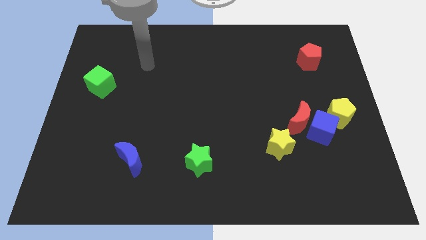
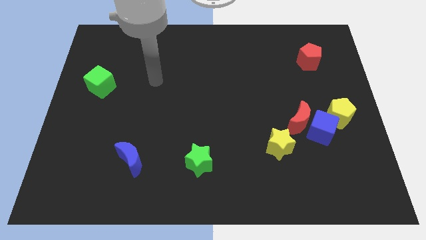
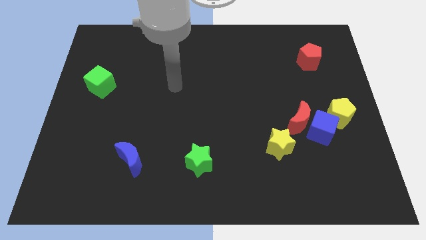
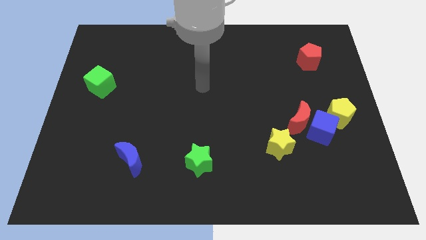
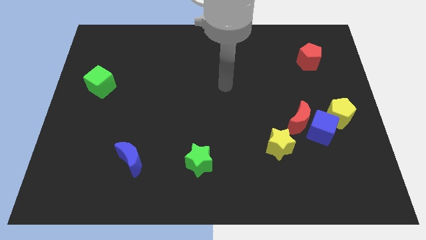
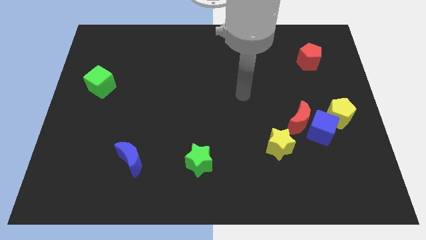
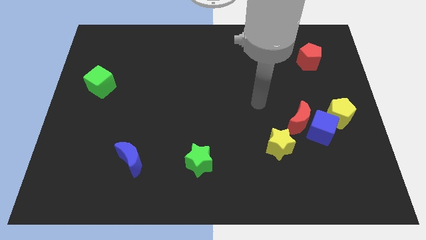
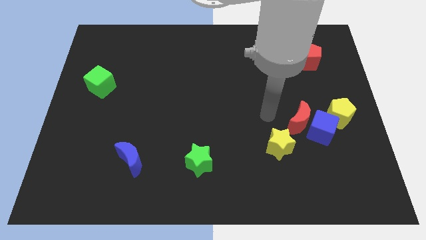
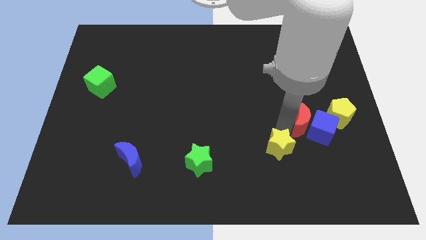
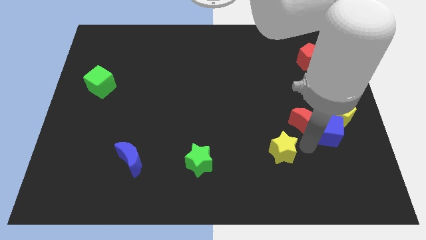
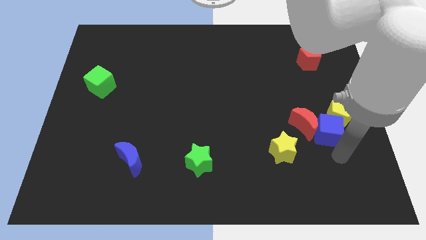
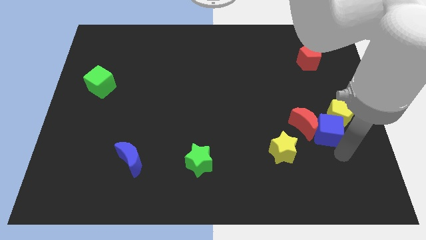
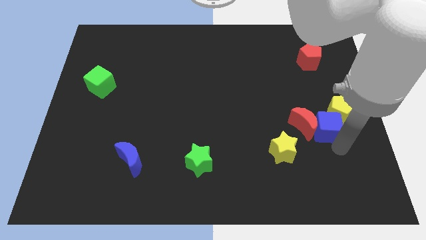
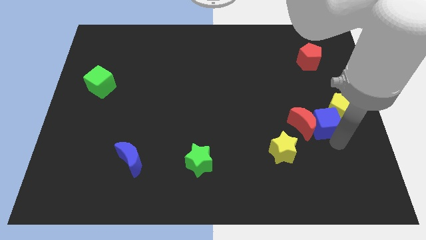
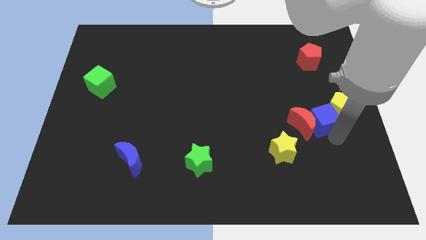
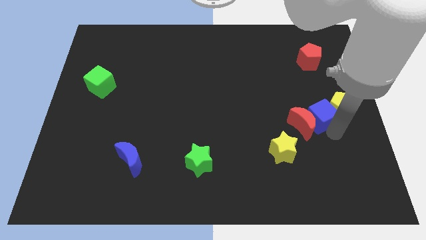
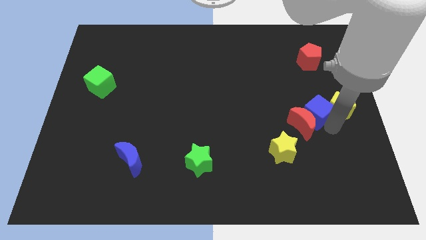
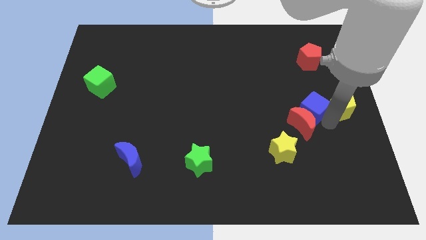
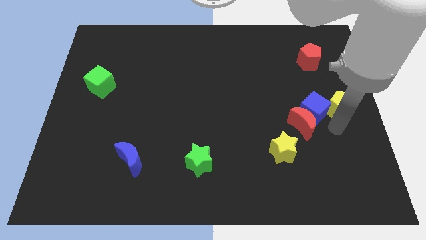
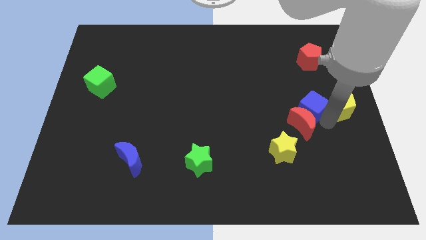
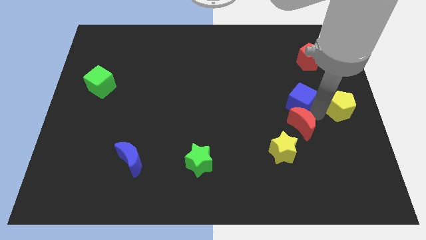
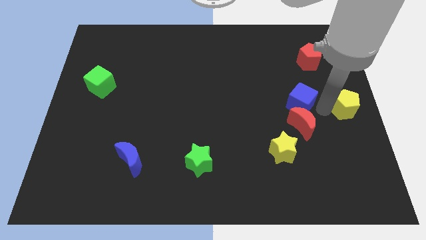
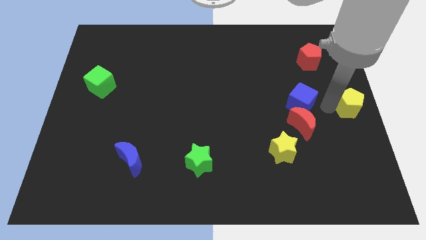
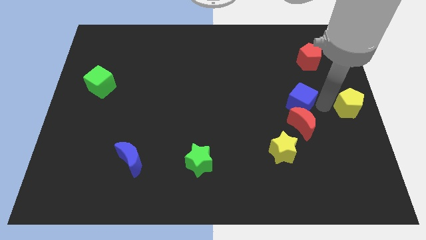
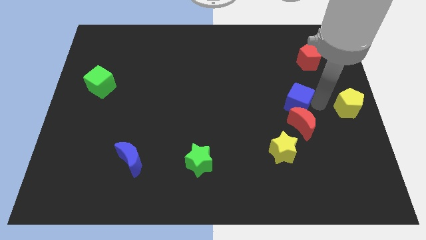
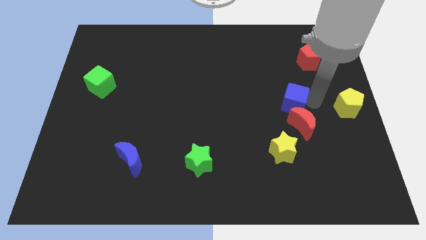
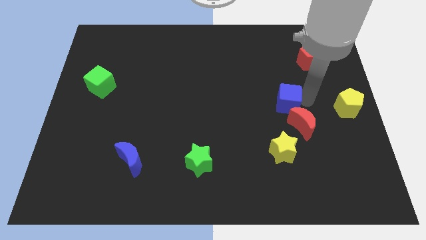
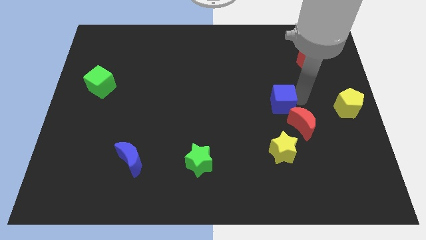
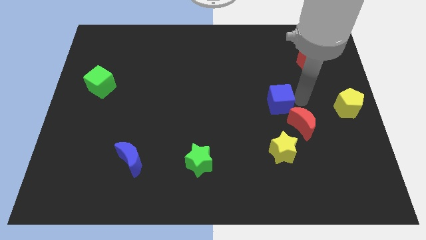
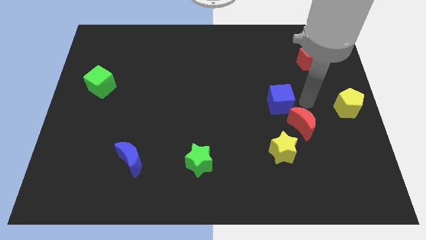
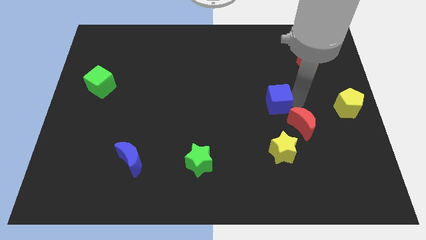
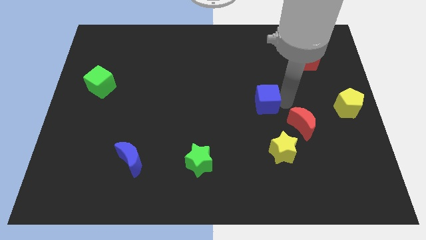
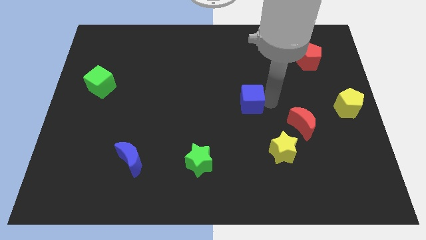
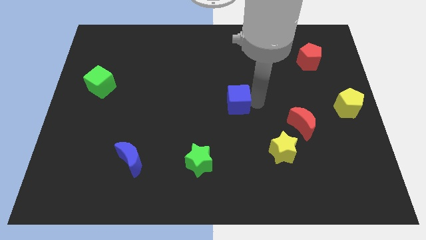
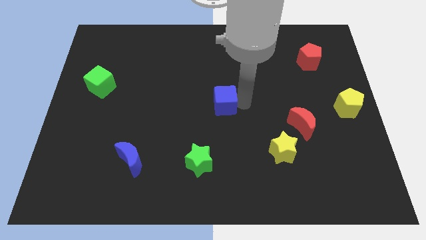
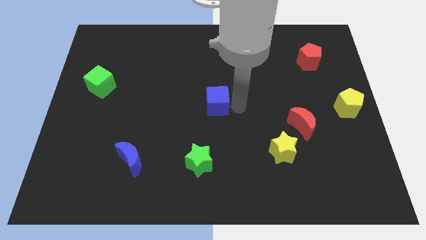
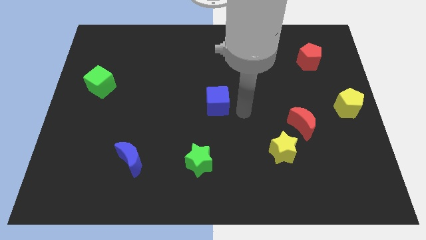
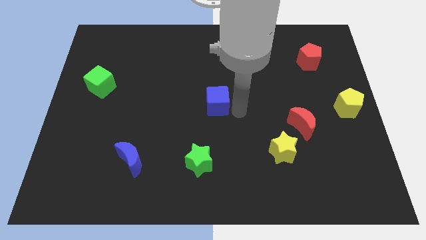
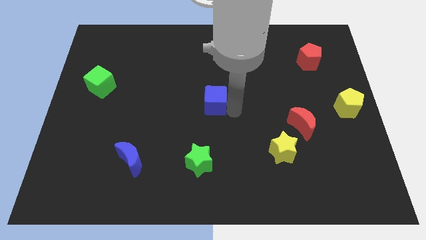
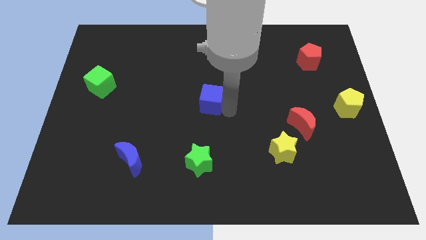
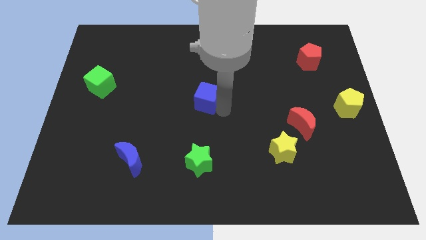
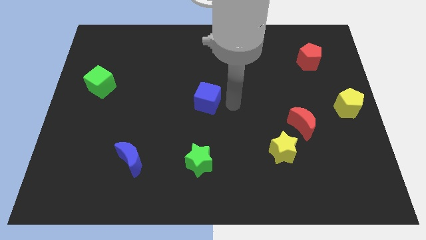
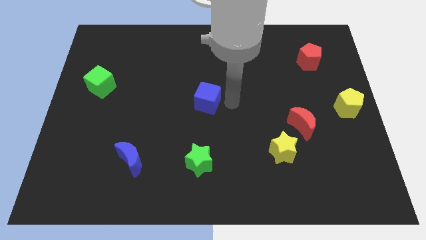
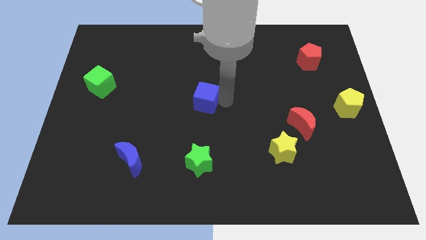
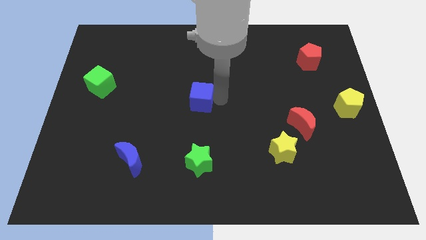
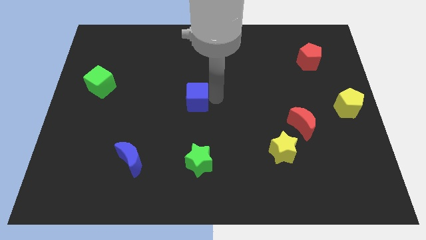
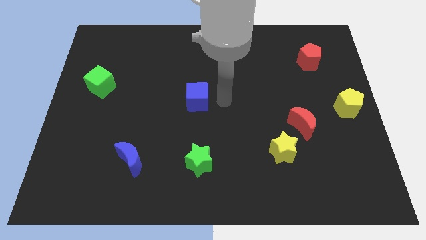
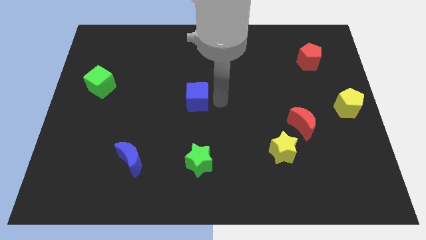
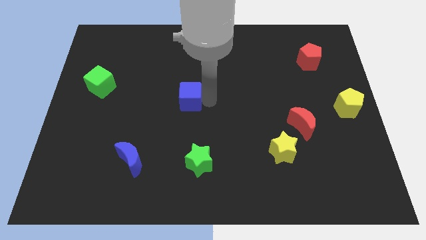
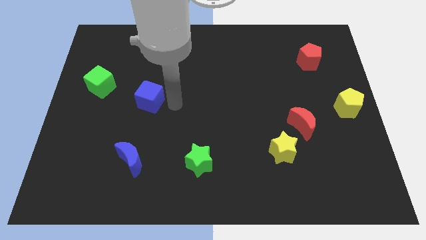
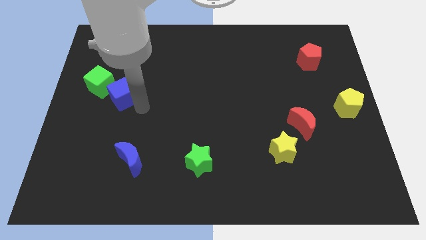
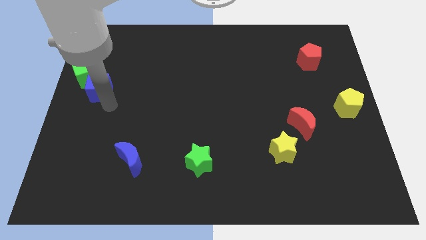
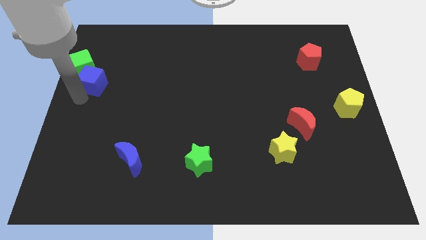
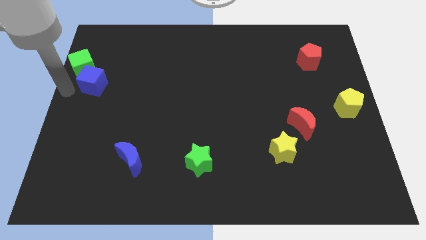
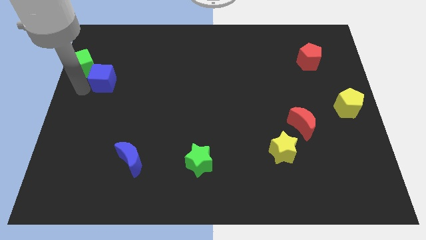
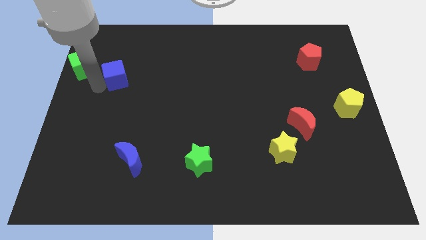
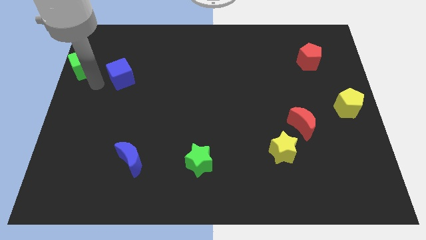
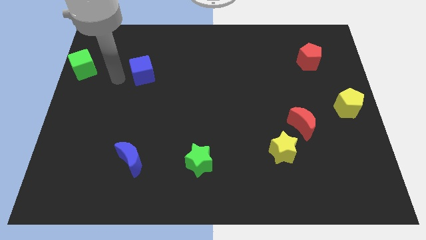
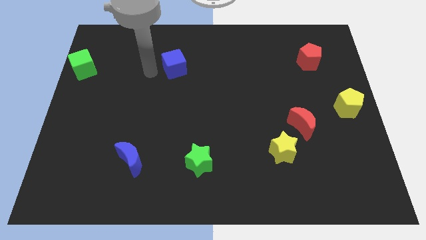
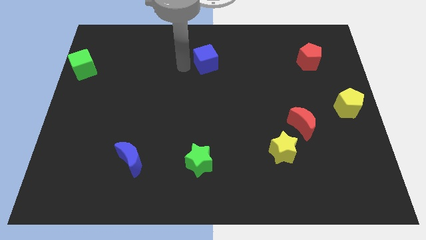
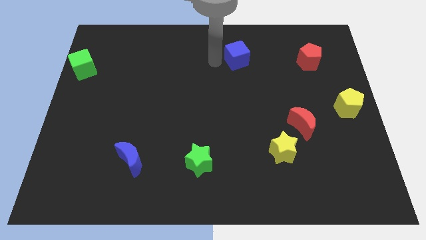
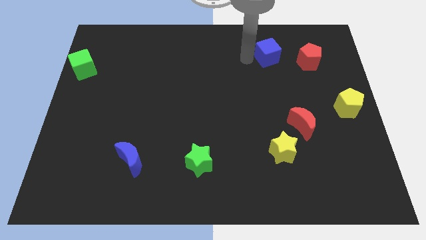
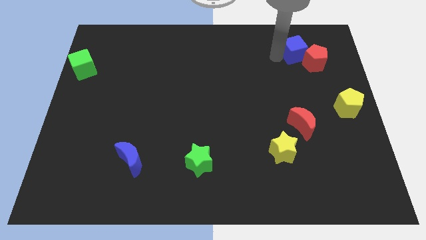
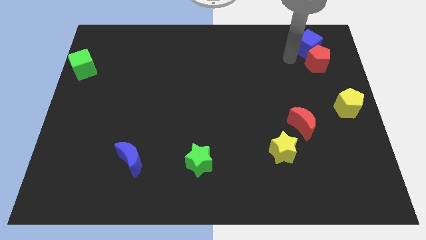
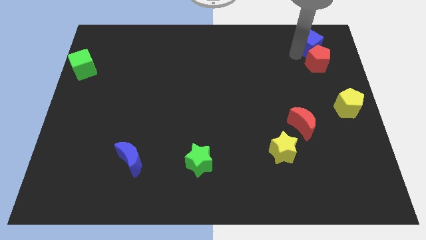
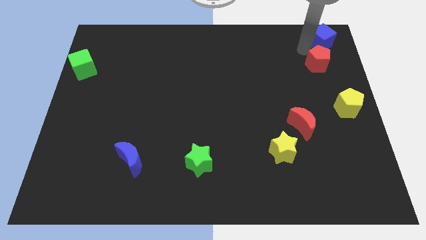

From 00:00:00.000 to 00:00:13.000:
push the blue cube to the top right

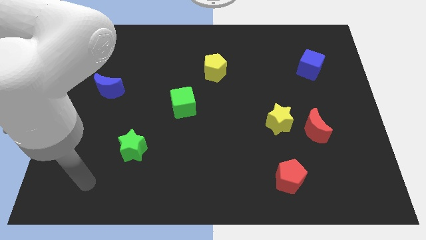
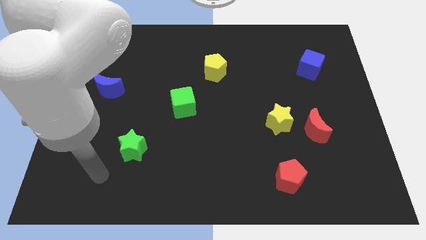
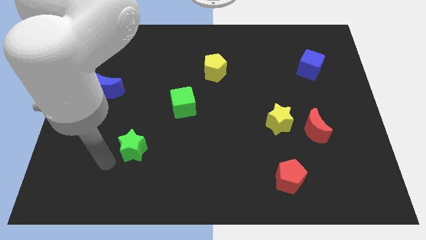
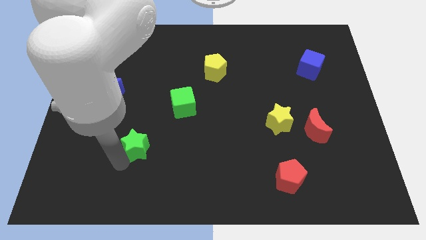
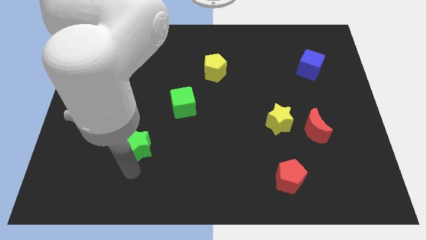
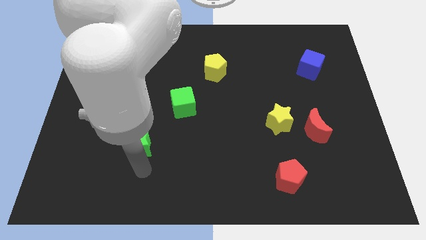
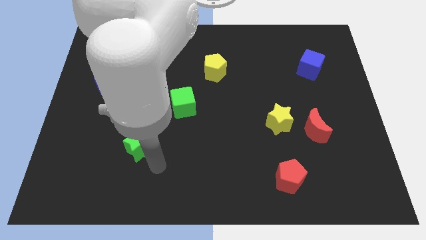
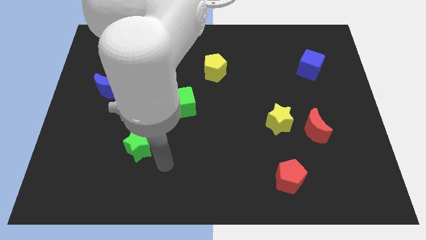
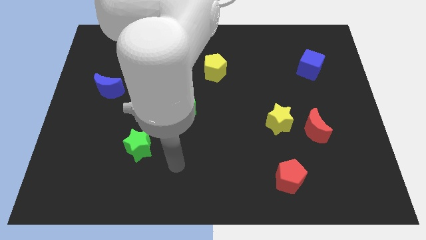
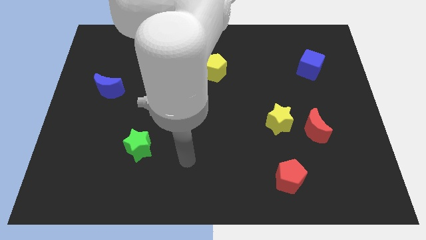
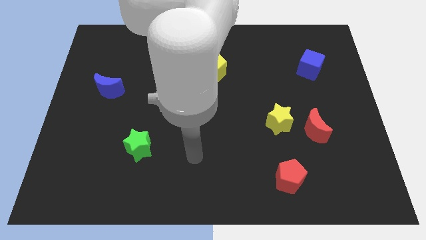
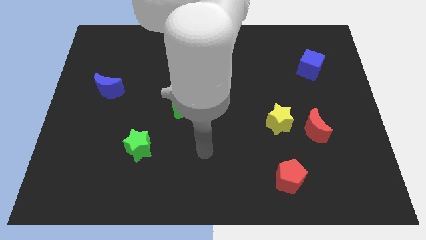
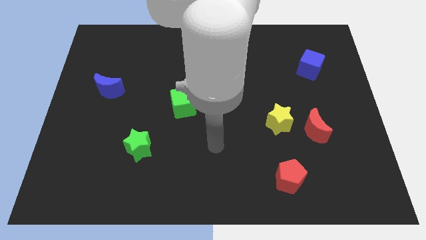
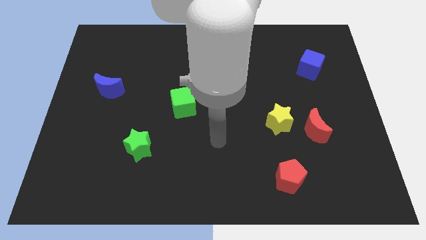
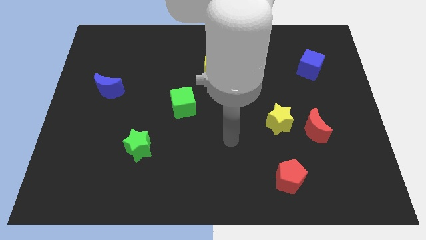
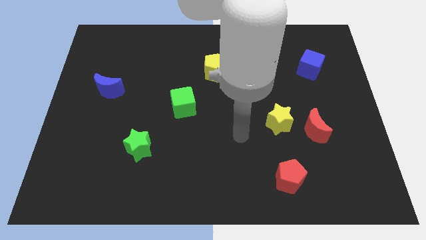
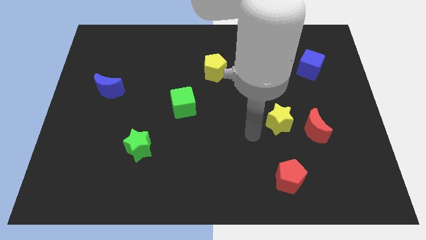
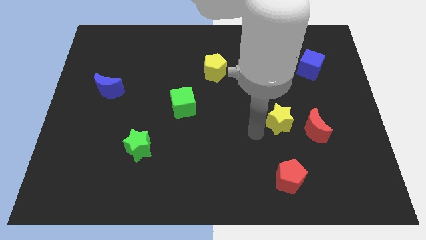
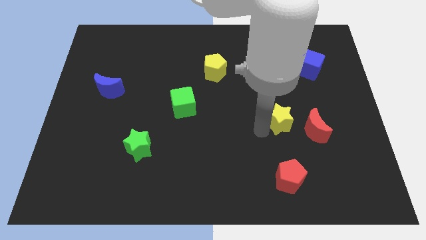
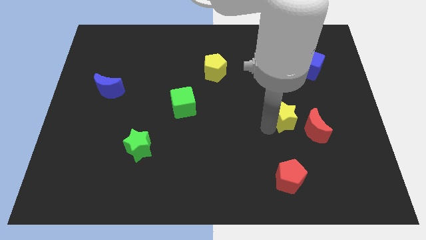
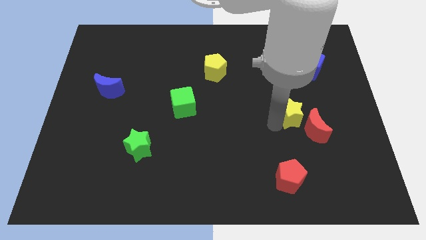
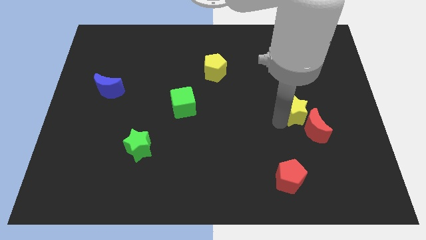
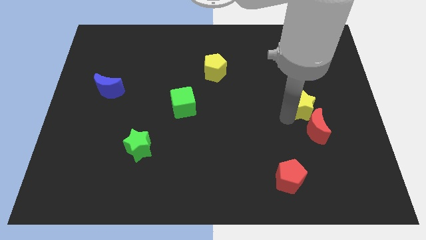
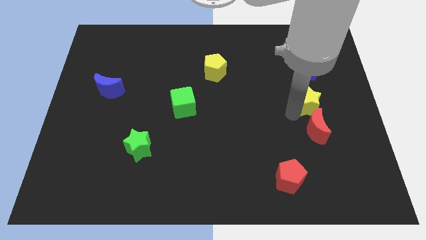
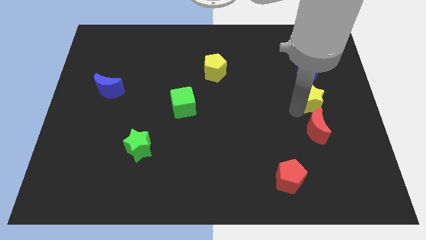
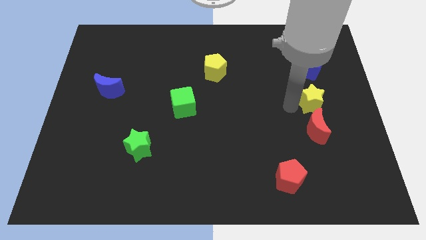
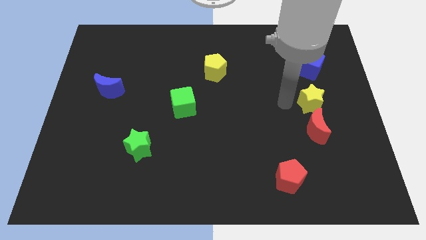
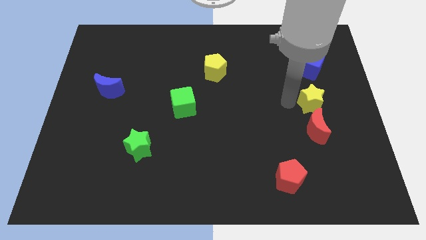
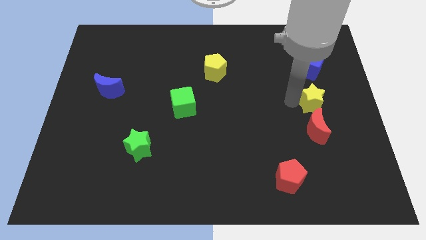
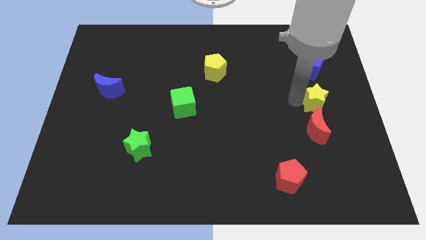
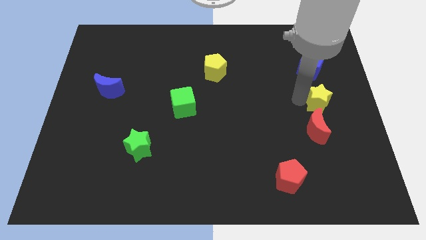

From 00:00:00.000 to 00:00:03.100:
move the yellow star to the right side of the board
